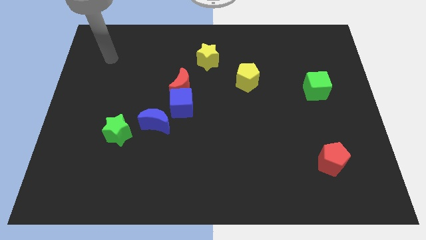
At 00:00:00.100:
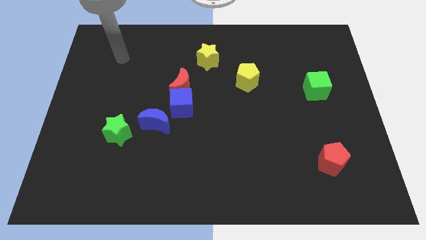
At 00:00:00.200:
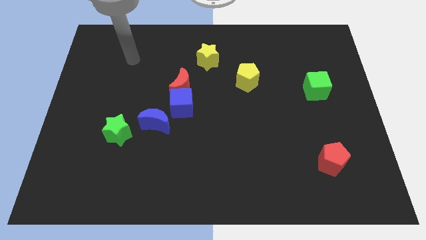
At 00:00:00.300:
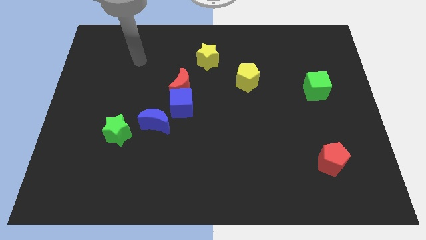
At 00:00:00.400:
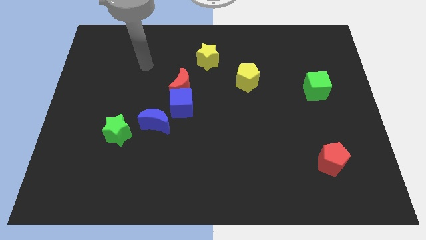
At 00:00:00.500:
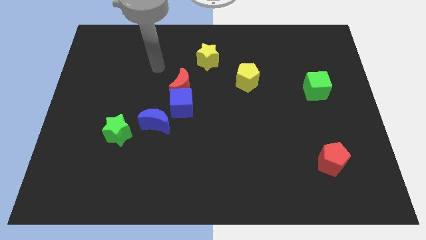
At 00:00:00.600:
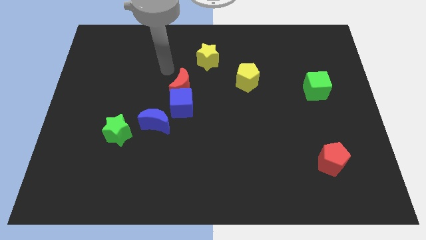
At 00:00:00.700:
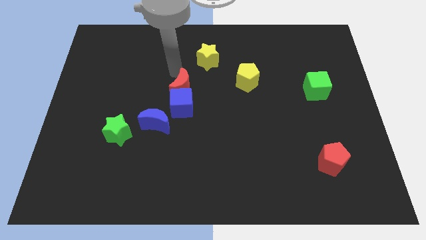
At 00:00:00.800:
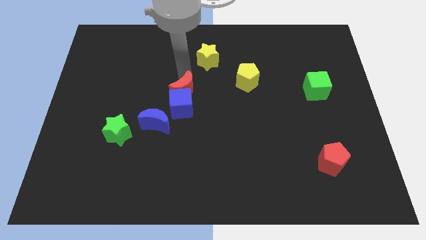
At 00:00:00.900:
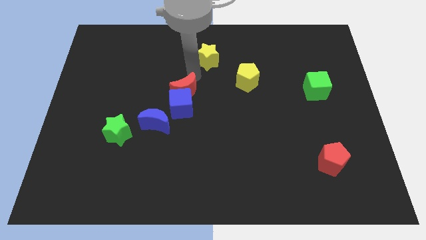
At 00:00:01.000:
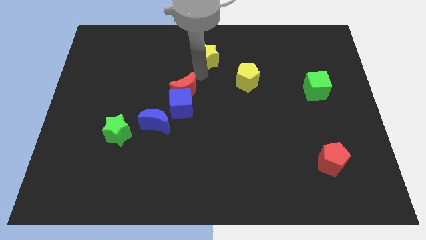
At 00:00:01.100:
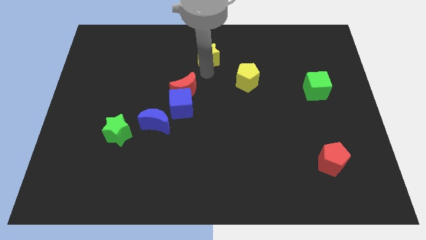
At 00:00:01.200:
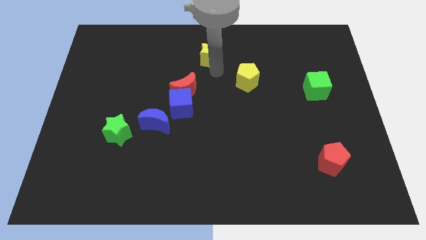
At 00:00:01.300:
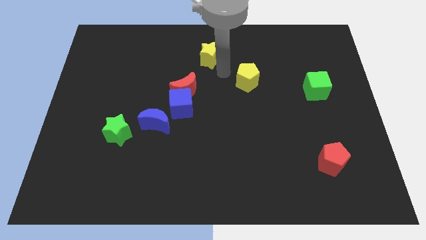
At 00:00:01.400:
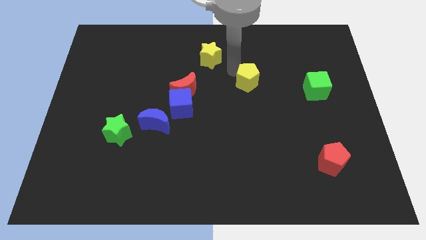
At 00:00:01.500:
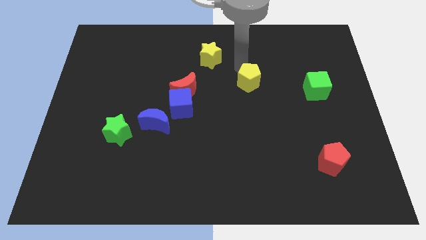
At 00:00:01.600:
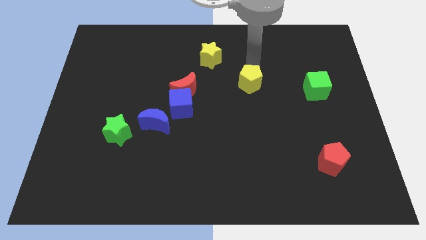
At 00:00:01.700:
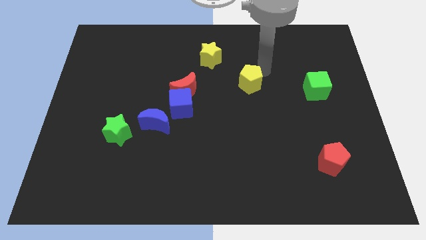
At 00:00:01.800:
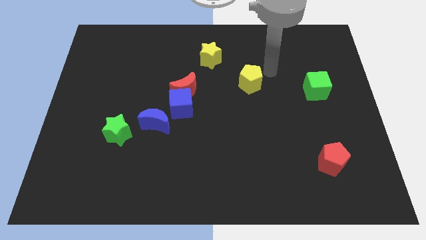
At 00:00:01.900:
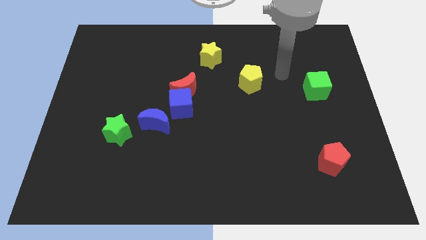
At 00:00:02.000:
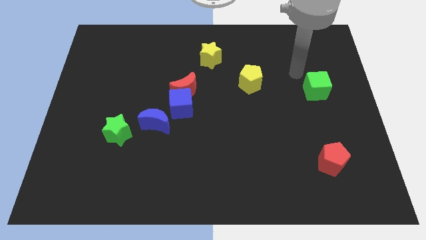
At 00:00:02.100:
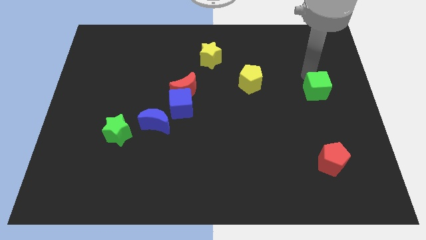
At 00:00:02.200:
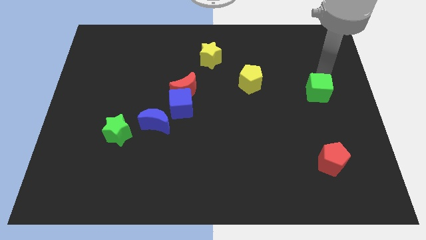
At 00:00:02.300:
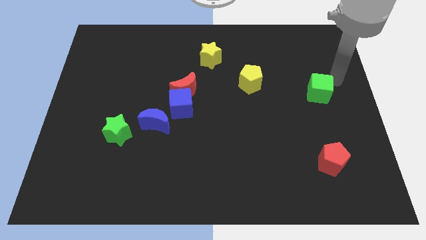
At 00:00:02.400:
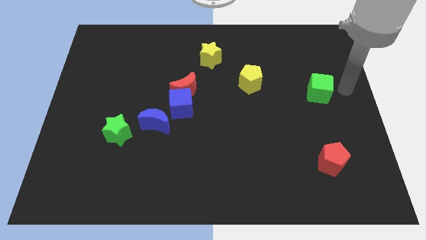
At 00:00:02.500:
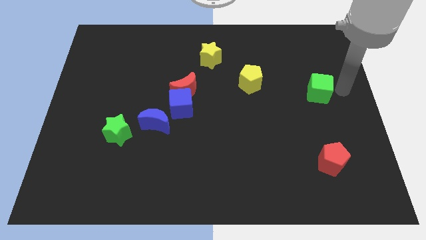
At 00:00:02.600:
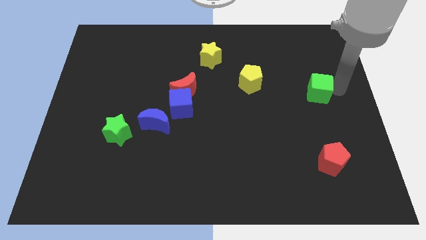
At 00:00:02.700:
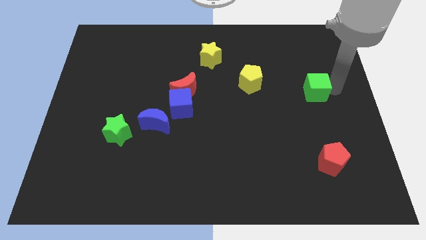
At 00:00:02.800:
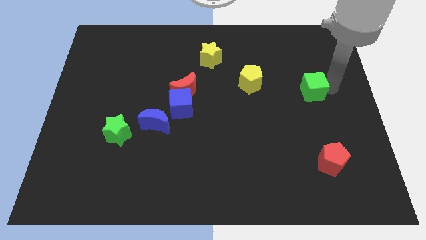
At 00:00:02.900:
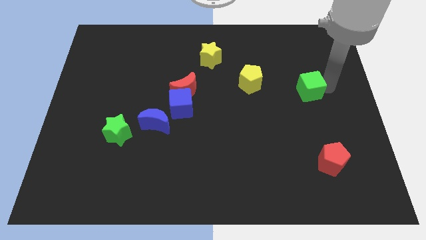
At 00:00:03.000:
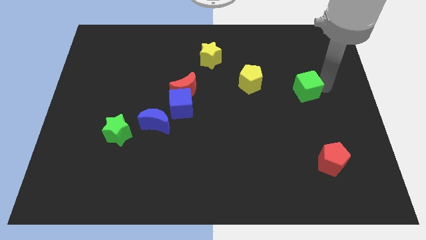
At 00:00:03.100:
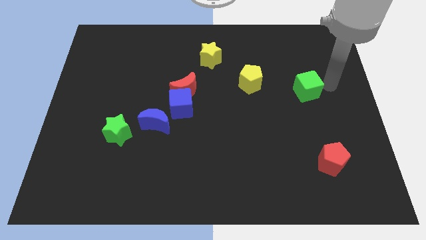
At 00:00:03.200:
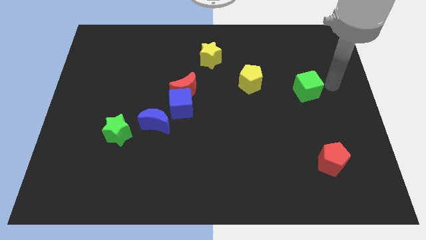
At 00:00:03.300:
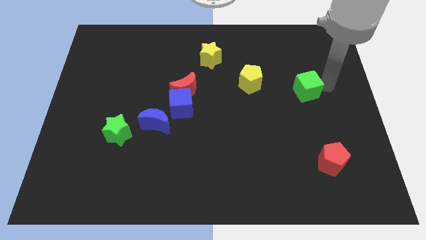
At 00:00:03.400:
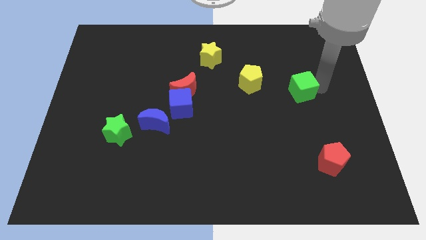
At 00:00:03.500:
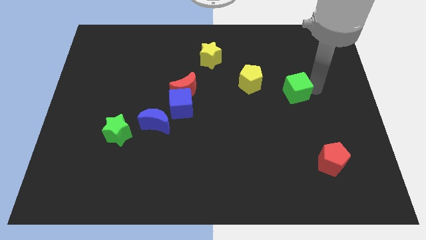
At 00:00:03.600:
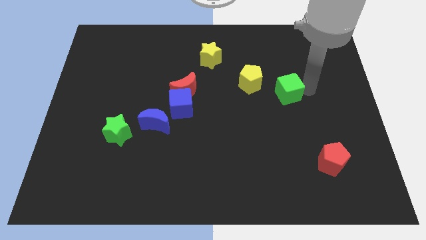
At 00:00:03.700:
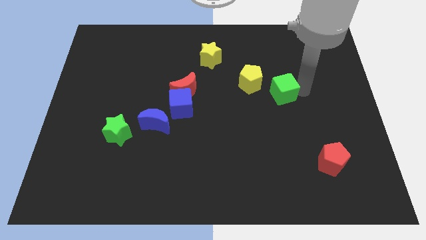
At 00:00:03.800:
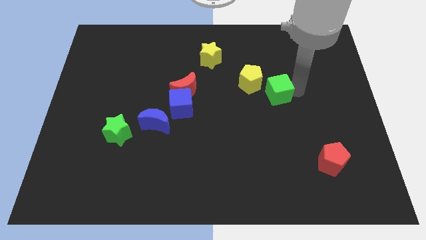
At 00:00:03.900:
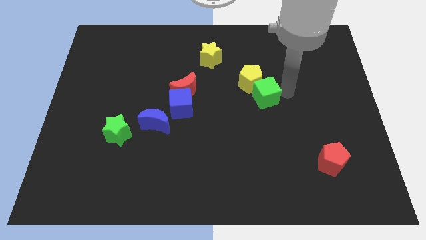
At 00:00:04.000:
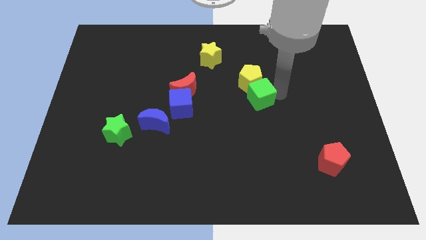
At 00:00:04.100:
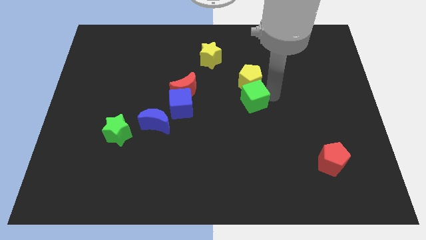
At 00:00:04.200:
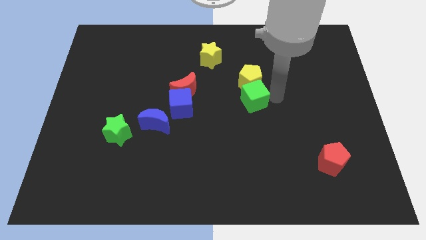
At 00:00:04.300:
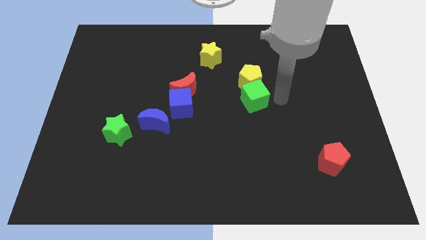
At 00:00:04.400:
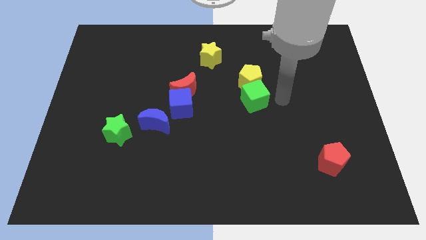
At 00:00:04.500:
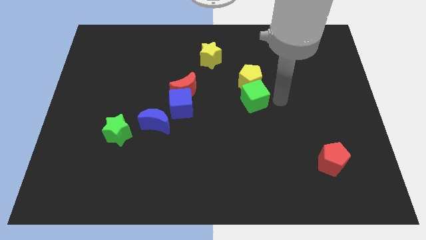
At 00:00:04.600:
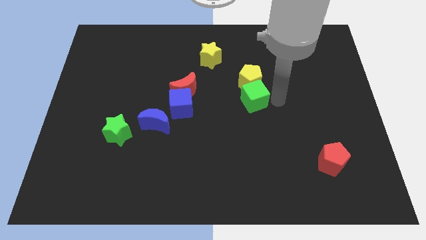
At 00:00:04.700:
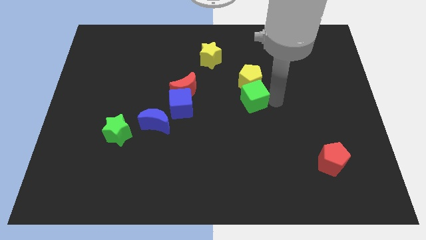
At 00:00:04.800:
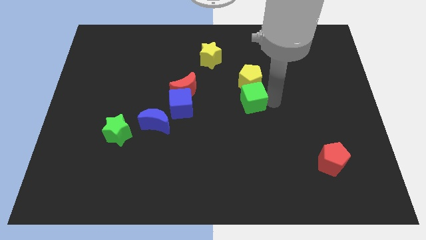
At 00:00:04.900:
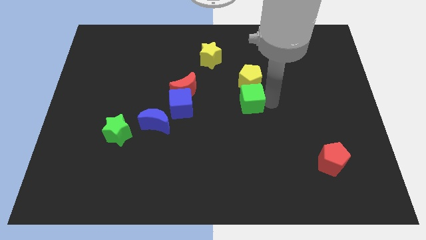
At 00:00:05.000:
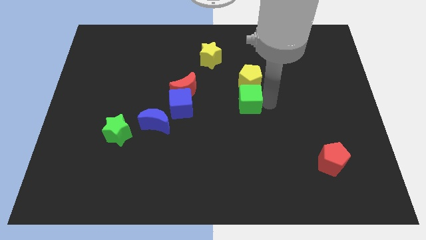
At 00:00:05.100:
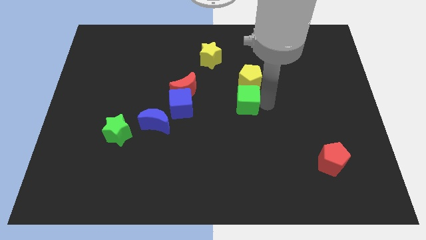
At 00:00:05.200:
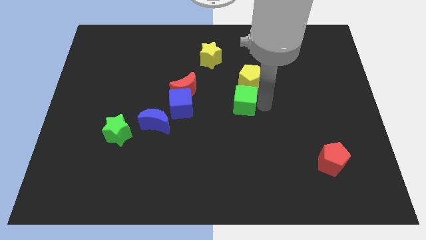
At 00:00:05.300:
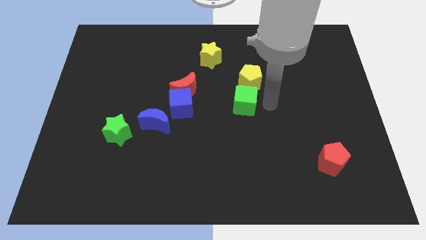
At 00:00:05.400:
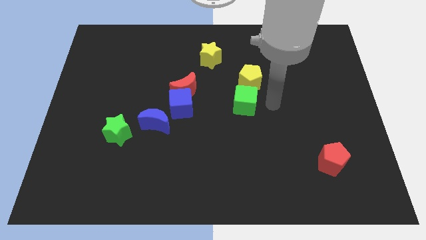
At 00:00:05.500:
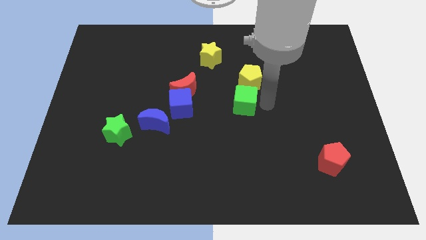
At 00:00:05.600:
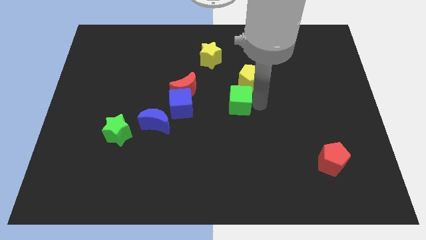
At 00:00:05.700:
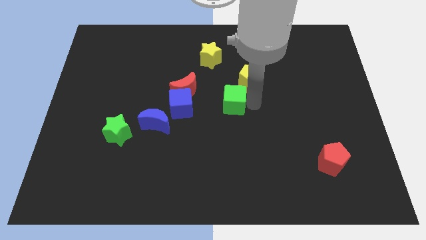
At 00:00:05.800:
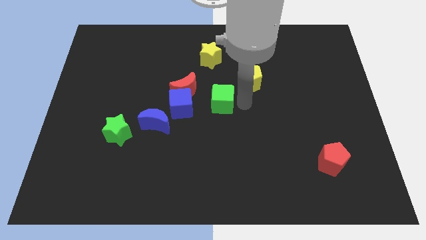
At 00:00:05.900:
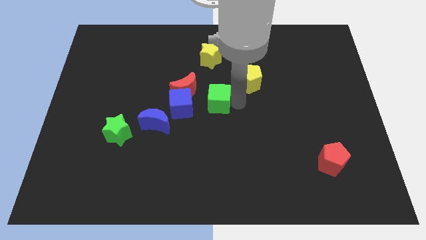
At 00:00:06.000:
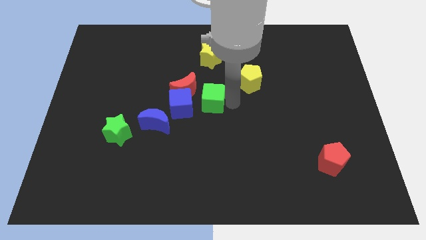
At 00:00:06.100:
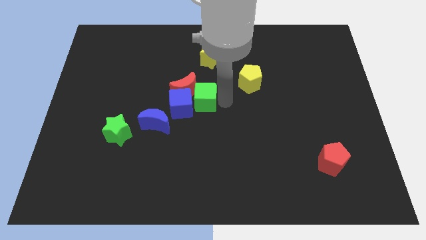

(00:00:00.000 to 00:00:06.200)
move the green cube towards the blue cube

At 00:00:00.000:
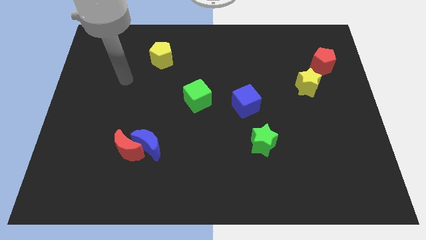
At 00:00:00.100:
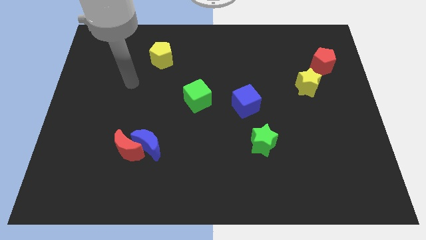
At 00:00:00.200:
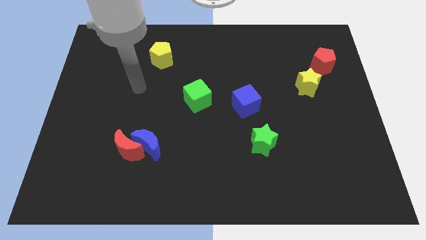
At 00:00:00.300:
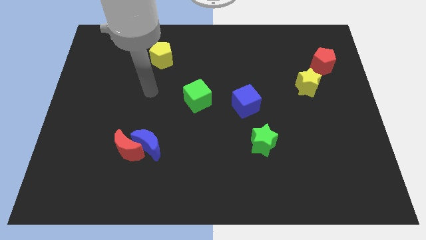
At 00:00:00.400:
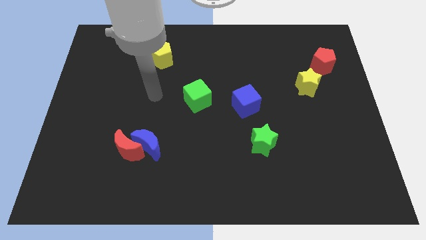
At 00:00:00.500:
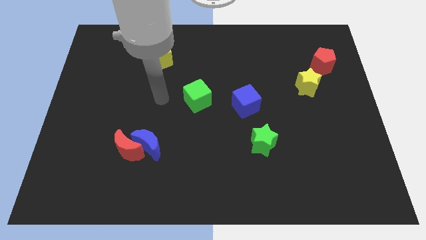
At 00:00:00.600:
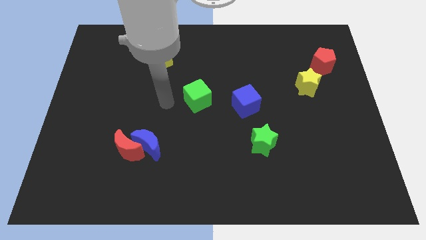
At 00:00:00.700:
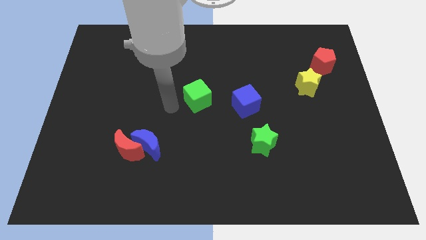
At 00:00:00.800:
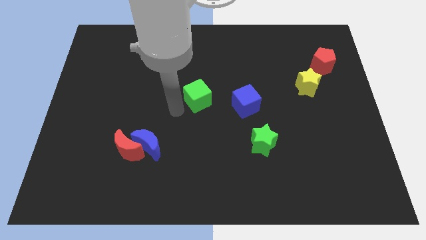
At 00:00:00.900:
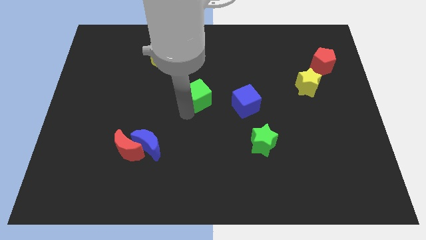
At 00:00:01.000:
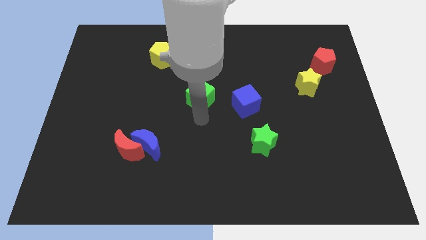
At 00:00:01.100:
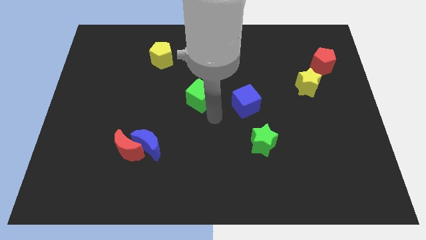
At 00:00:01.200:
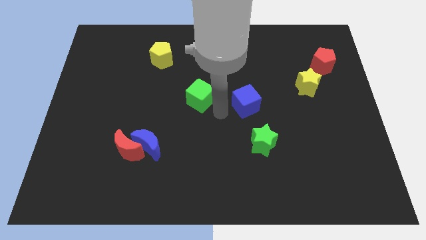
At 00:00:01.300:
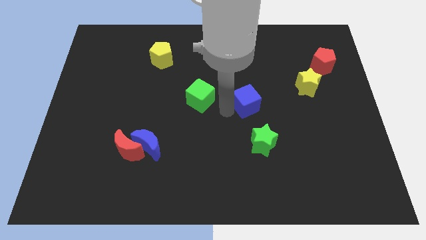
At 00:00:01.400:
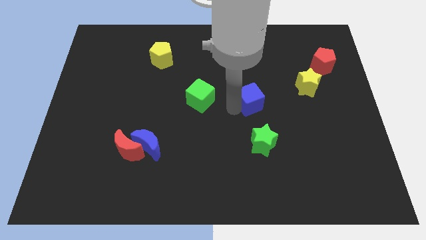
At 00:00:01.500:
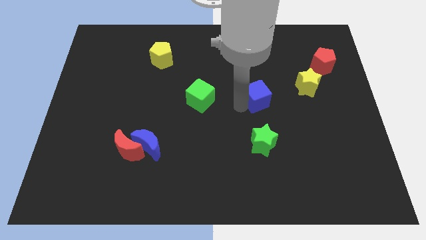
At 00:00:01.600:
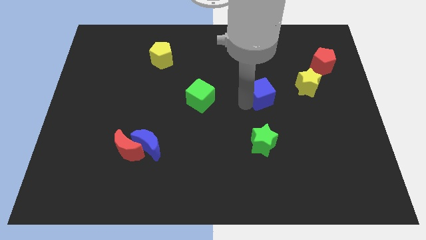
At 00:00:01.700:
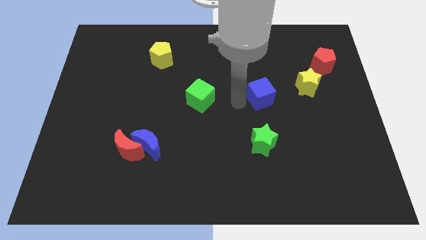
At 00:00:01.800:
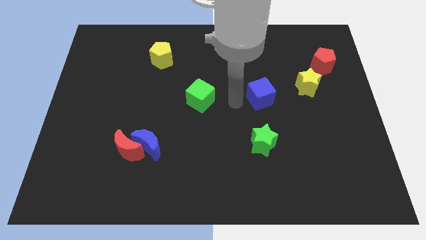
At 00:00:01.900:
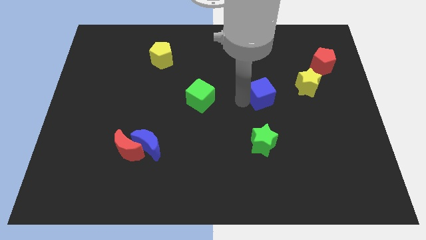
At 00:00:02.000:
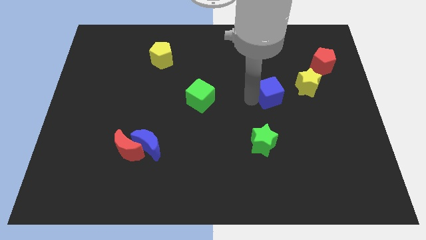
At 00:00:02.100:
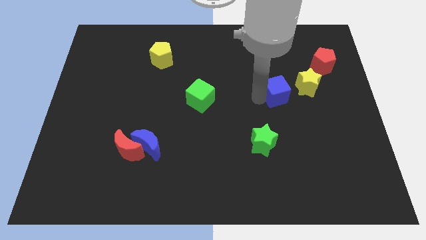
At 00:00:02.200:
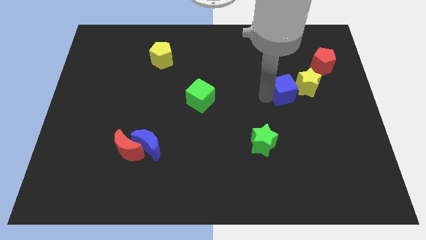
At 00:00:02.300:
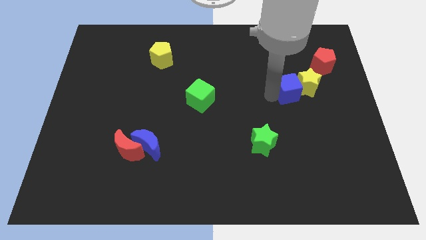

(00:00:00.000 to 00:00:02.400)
slide the blue cube next to the yellow star
